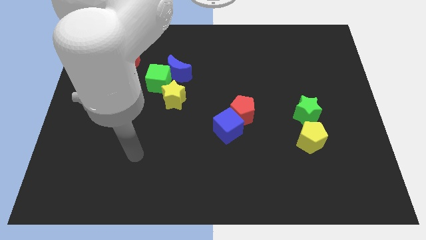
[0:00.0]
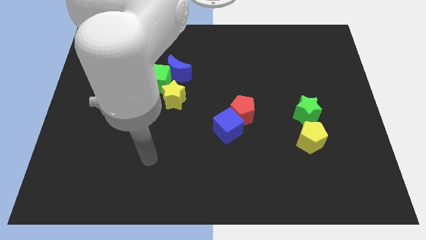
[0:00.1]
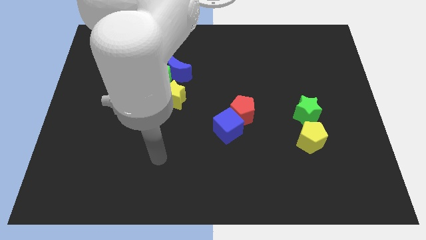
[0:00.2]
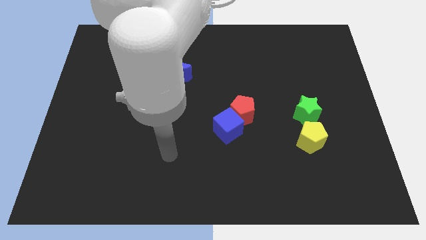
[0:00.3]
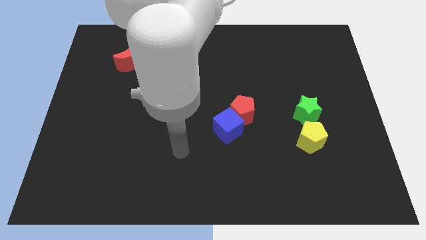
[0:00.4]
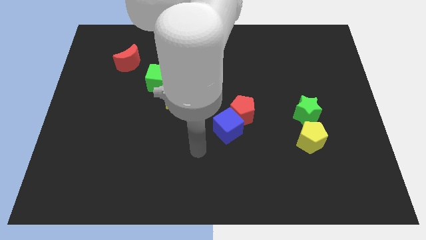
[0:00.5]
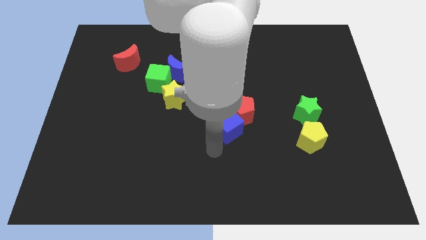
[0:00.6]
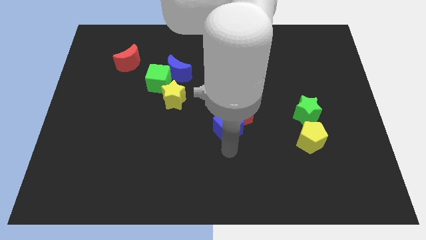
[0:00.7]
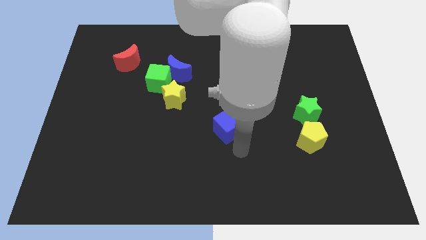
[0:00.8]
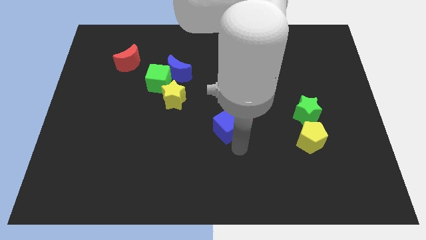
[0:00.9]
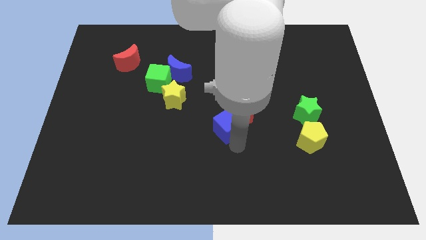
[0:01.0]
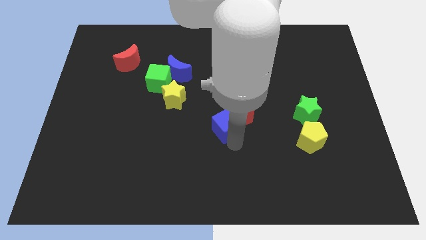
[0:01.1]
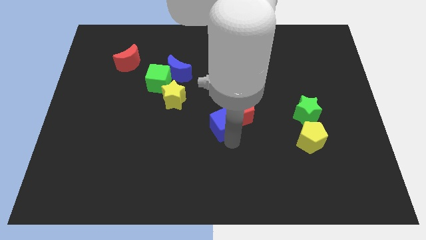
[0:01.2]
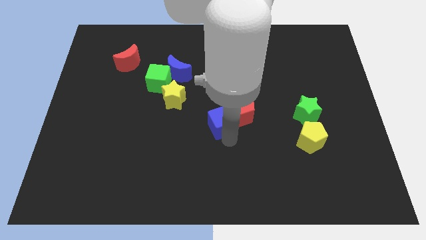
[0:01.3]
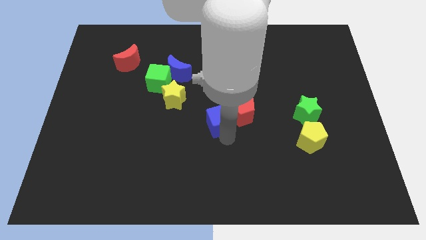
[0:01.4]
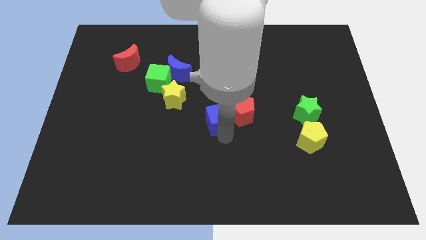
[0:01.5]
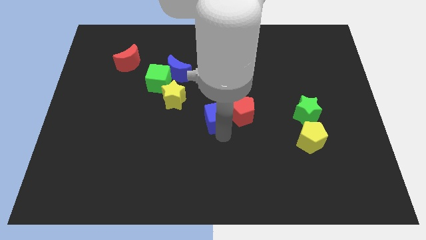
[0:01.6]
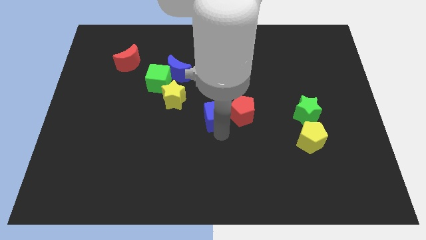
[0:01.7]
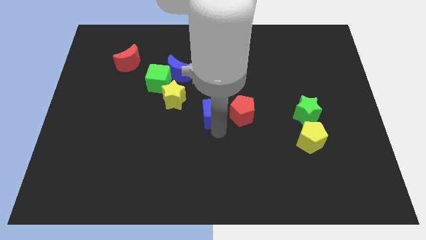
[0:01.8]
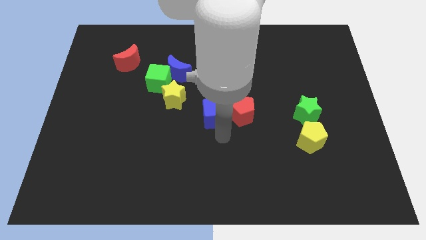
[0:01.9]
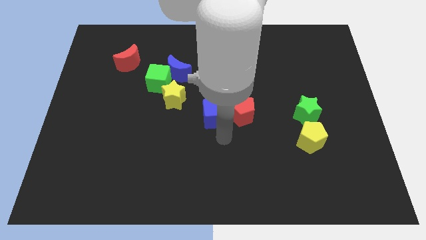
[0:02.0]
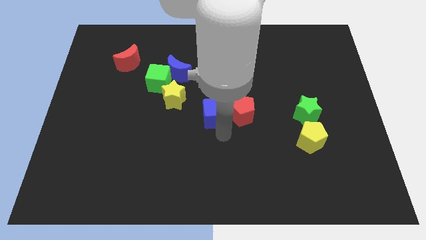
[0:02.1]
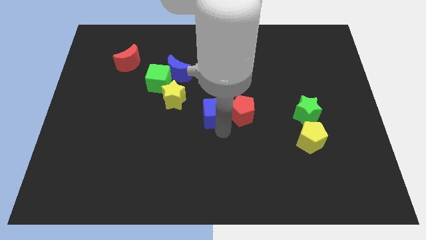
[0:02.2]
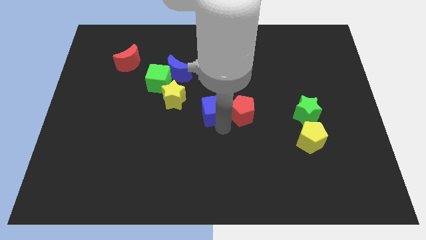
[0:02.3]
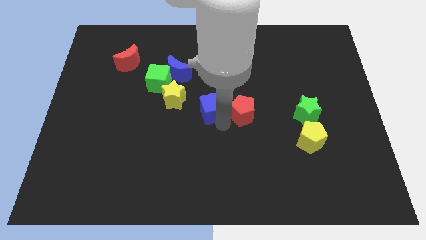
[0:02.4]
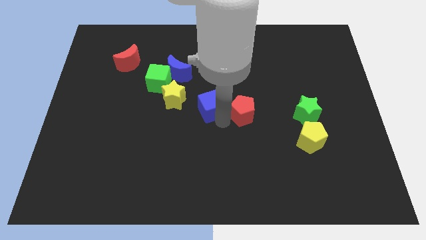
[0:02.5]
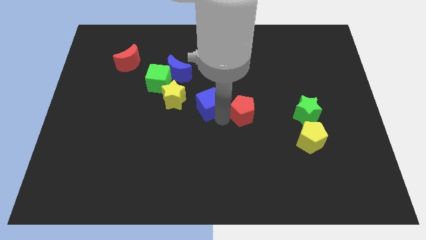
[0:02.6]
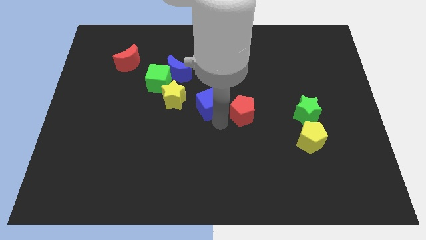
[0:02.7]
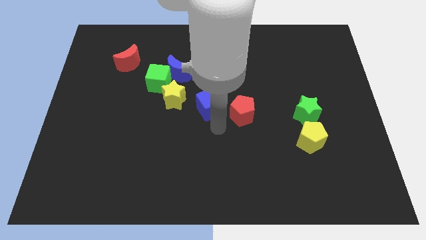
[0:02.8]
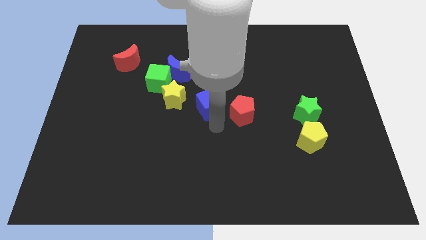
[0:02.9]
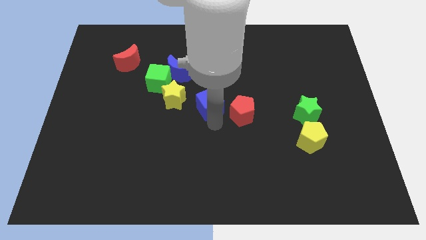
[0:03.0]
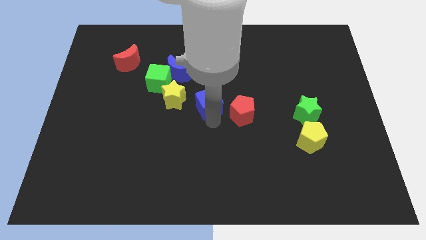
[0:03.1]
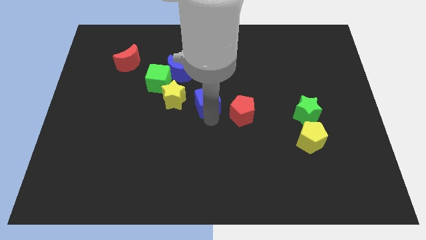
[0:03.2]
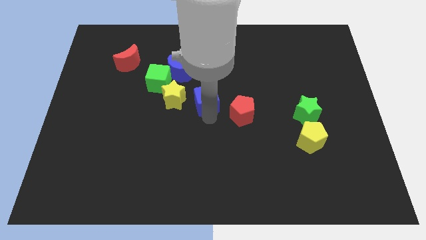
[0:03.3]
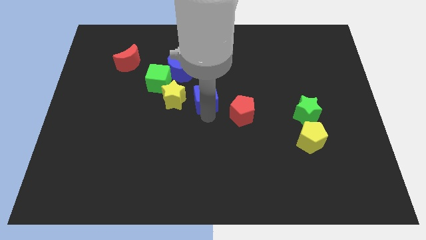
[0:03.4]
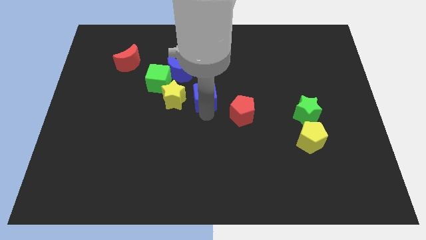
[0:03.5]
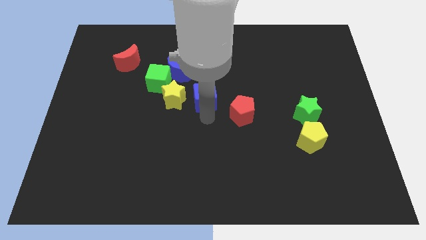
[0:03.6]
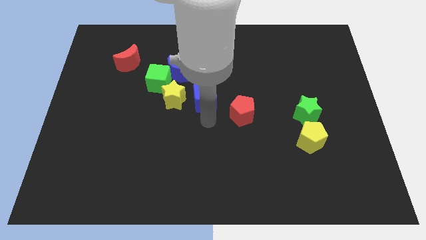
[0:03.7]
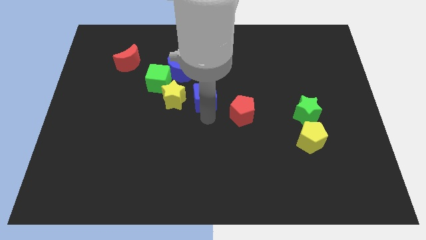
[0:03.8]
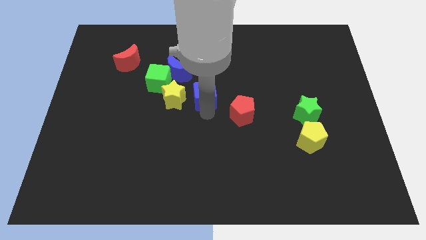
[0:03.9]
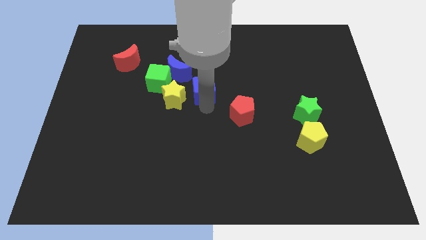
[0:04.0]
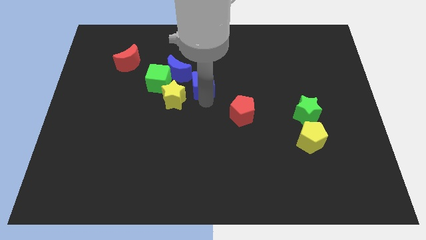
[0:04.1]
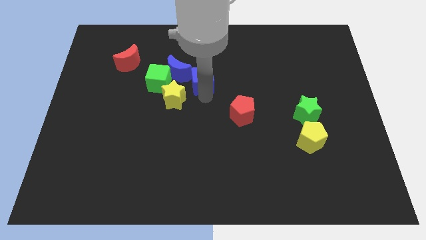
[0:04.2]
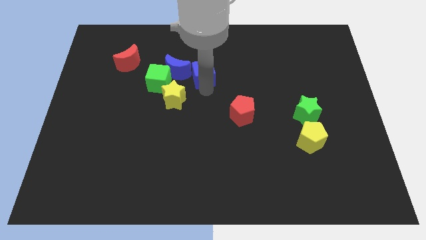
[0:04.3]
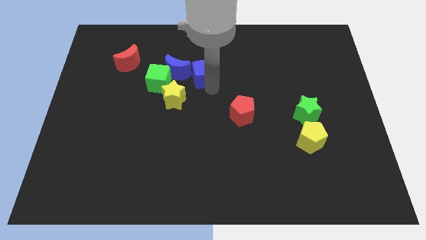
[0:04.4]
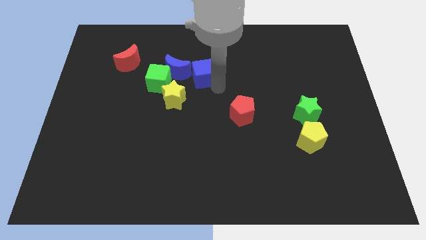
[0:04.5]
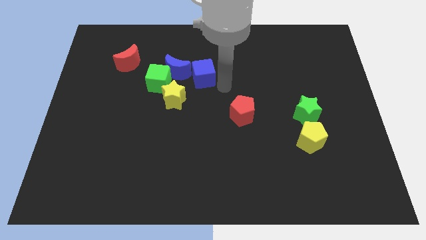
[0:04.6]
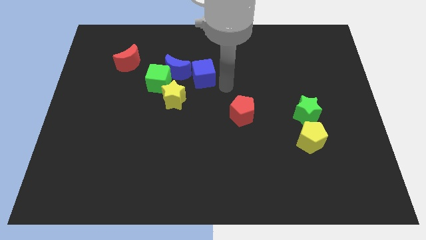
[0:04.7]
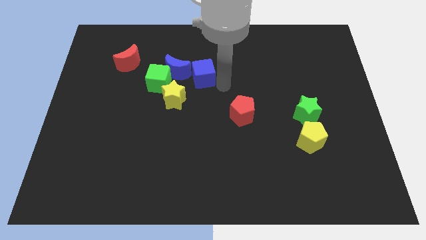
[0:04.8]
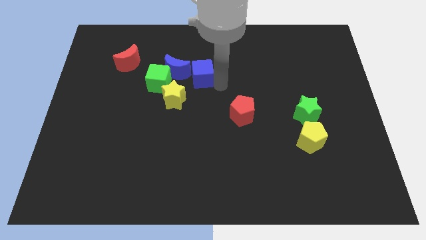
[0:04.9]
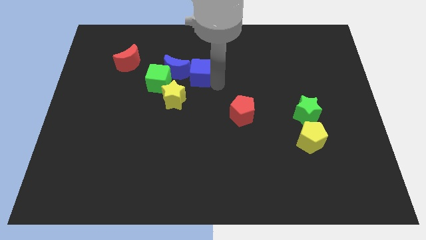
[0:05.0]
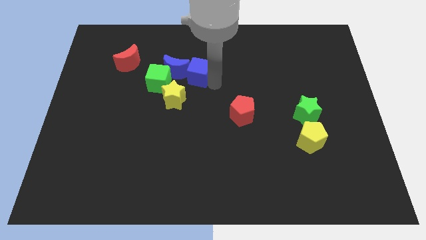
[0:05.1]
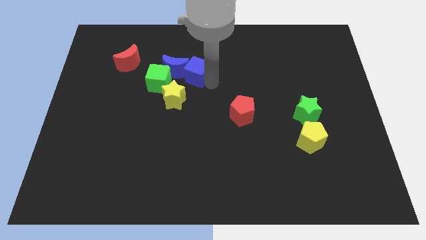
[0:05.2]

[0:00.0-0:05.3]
move the blue cube to the top right of the green cube
